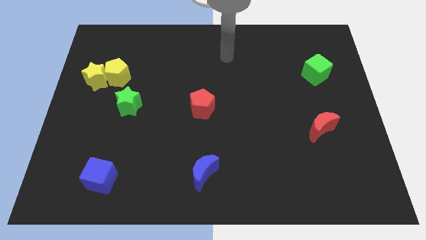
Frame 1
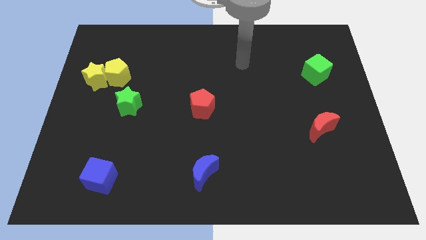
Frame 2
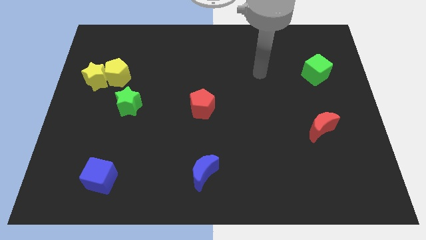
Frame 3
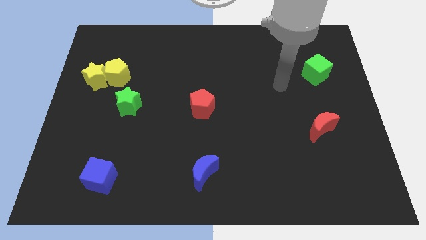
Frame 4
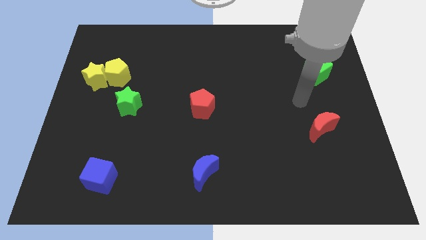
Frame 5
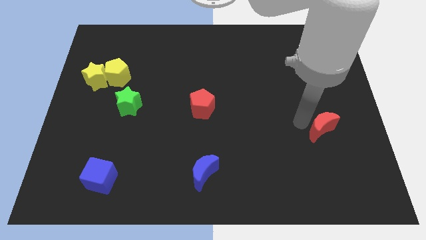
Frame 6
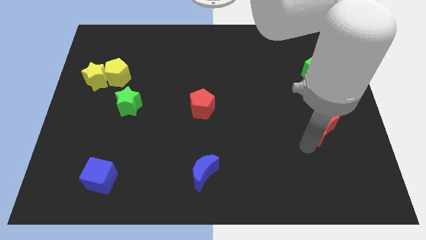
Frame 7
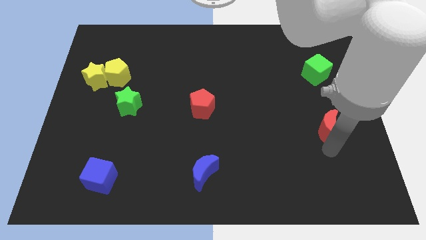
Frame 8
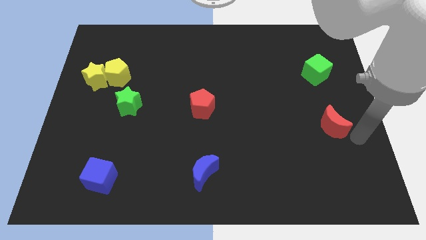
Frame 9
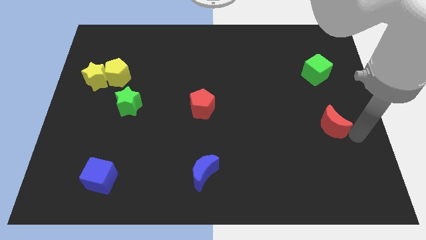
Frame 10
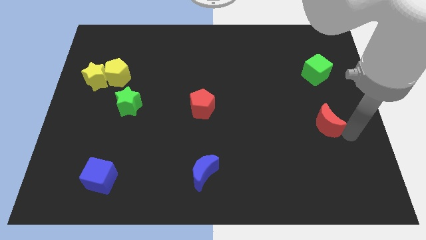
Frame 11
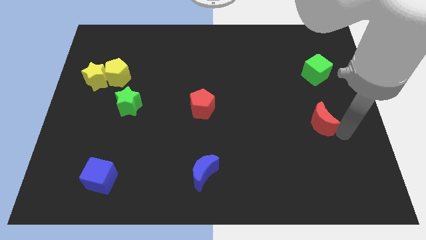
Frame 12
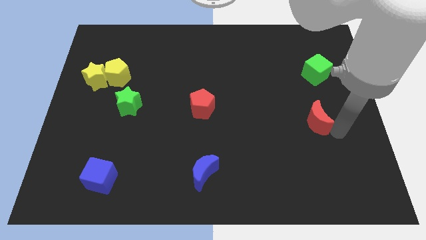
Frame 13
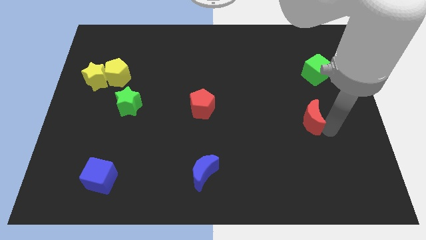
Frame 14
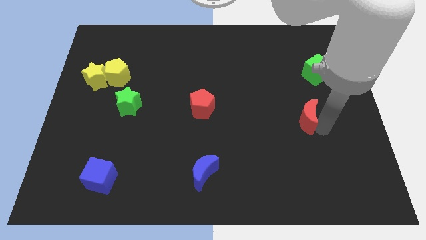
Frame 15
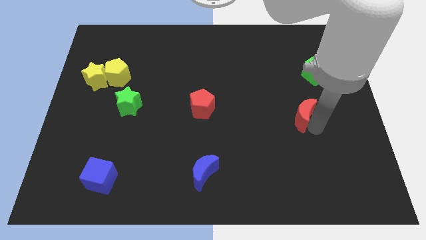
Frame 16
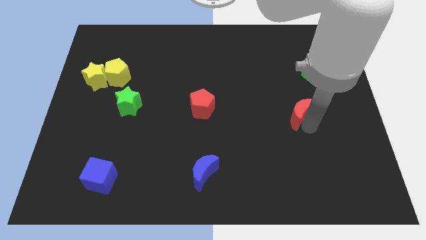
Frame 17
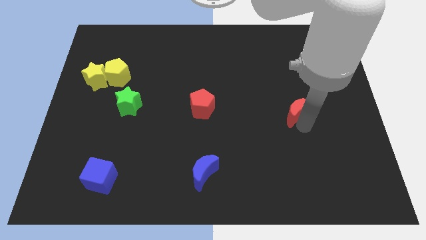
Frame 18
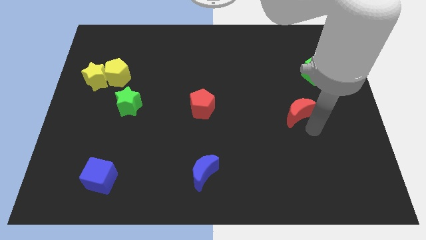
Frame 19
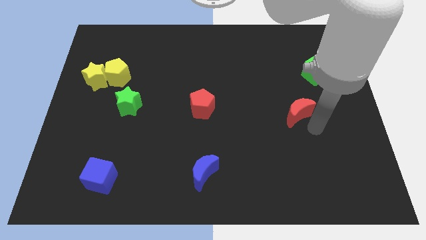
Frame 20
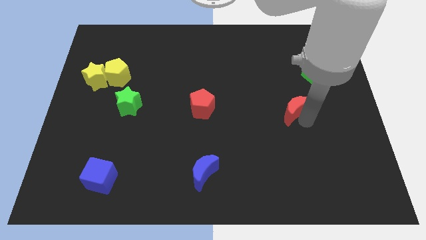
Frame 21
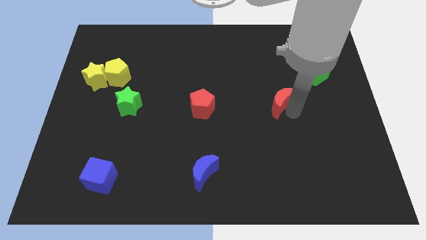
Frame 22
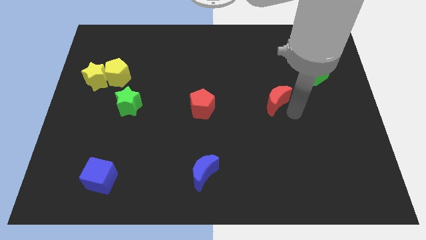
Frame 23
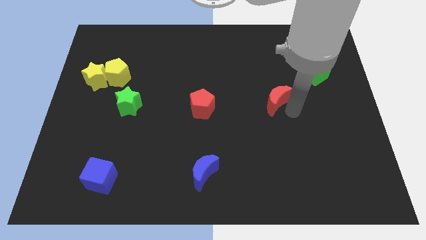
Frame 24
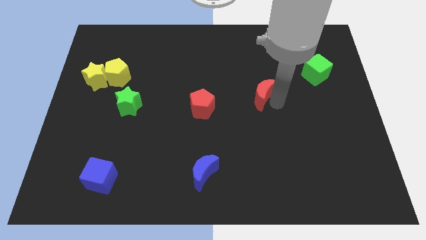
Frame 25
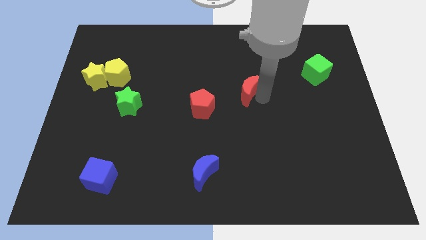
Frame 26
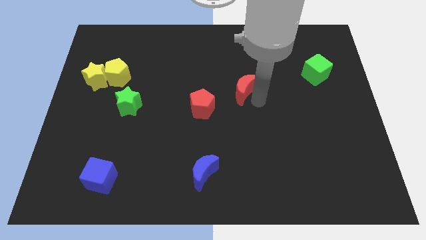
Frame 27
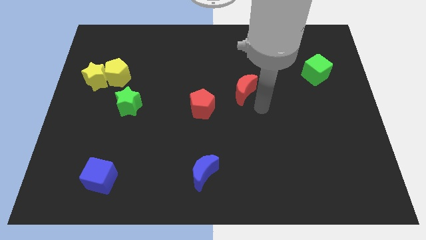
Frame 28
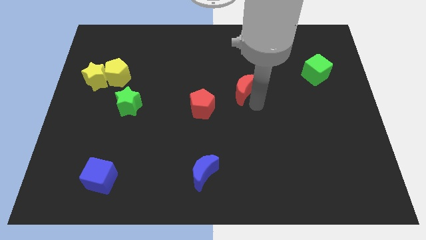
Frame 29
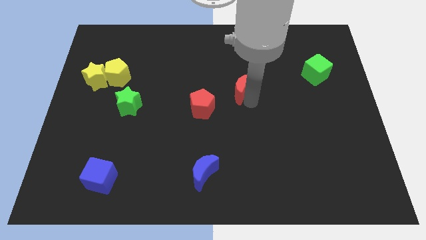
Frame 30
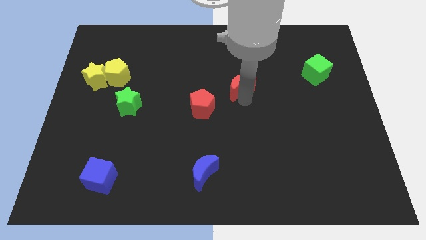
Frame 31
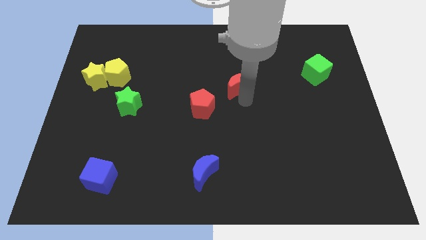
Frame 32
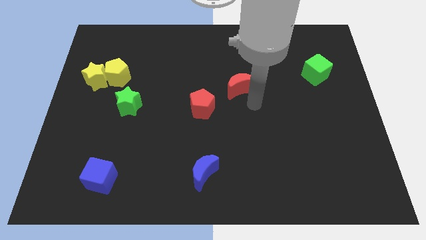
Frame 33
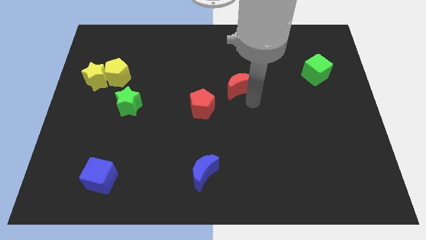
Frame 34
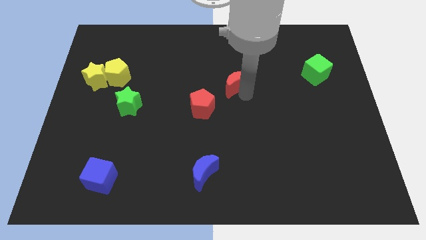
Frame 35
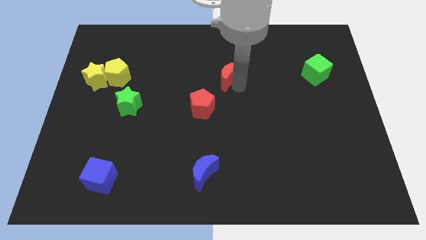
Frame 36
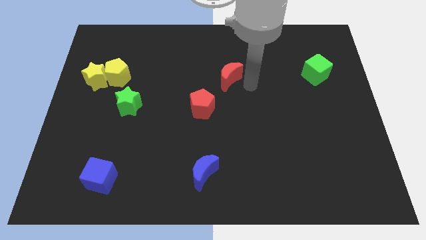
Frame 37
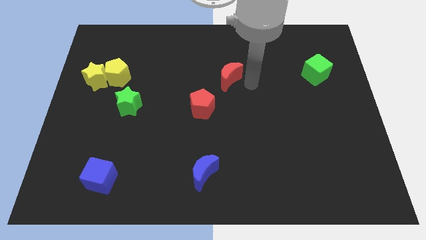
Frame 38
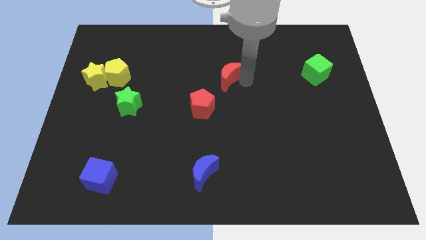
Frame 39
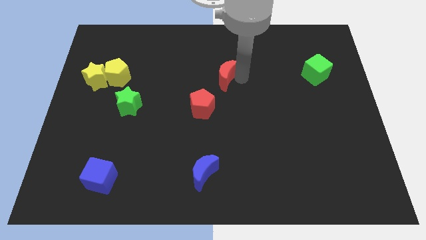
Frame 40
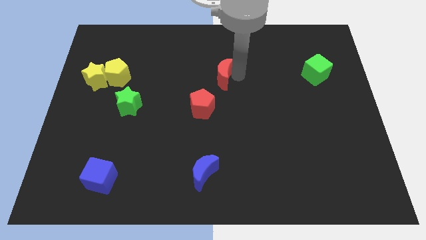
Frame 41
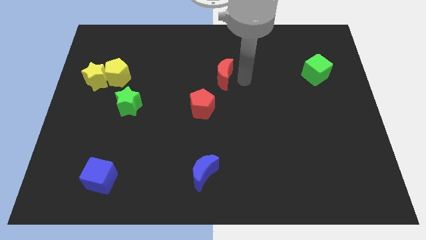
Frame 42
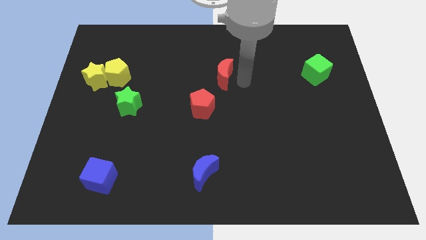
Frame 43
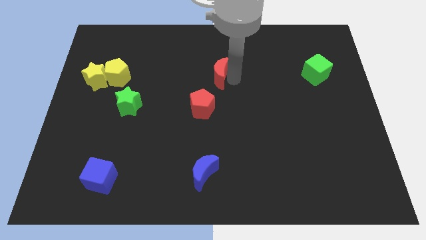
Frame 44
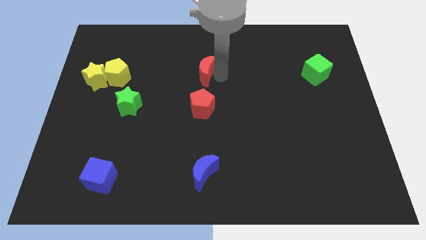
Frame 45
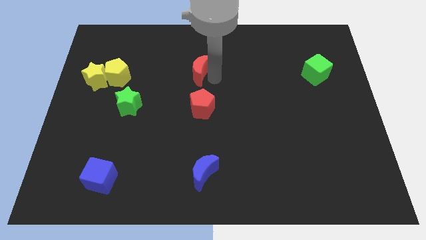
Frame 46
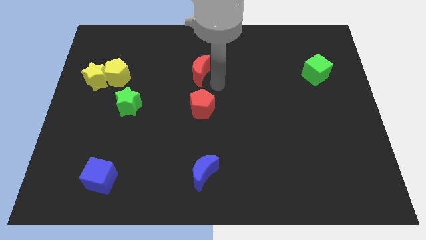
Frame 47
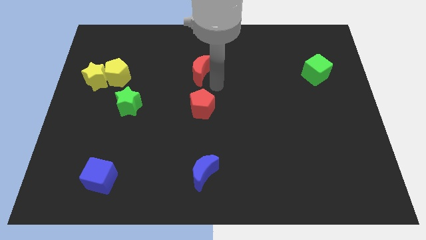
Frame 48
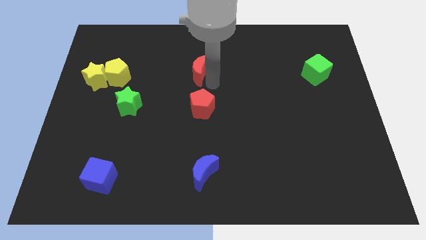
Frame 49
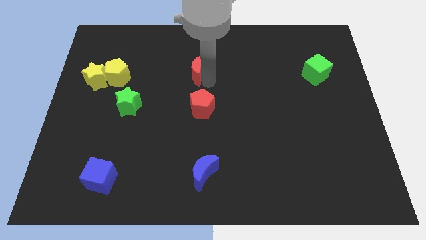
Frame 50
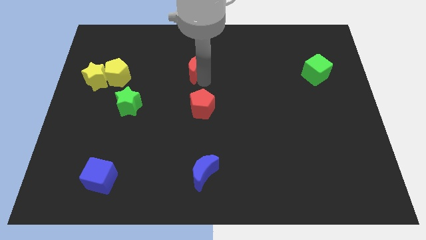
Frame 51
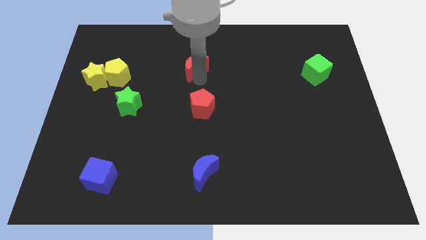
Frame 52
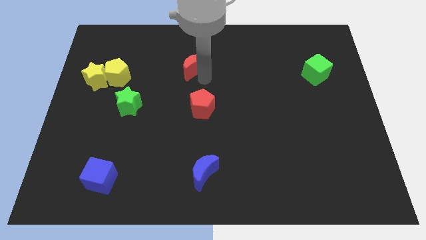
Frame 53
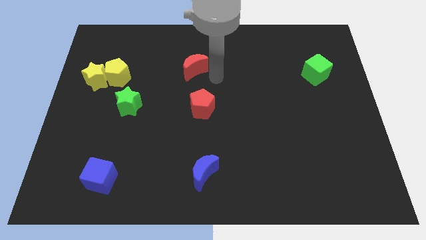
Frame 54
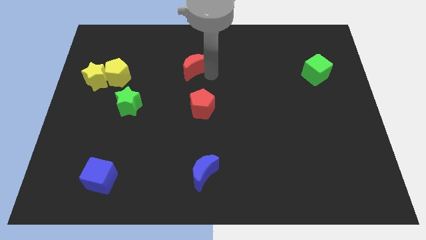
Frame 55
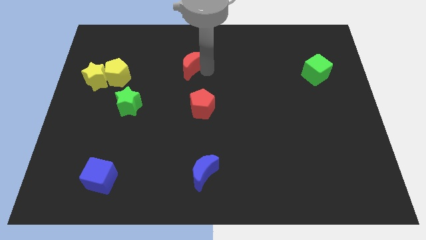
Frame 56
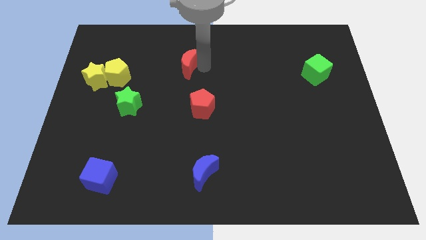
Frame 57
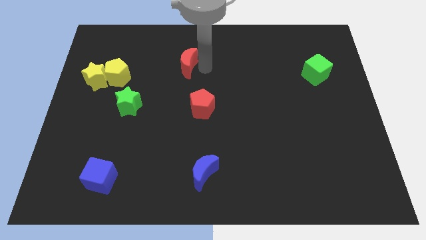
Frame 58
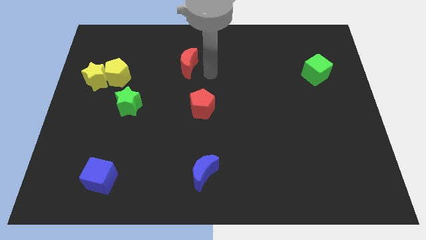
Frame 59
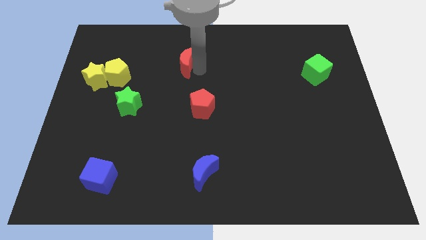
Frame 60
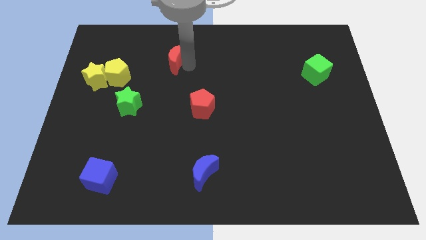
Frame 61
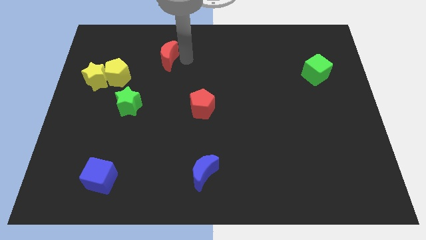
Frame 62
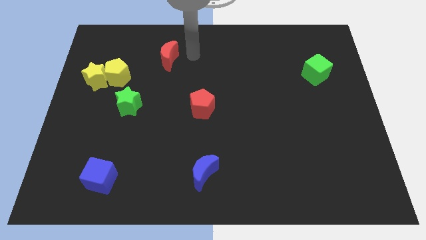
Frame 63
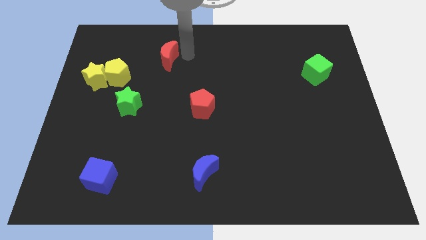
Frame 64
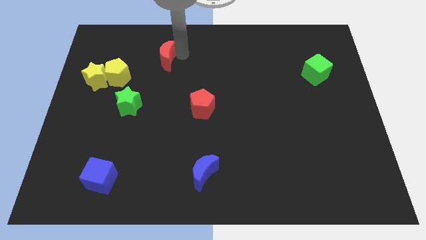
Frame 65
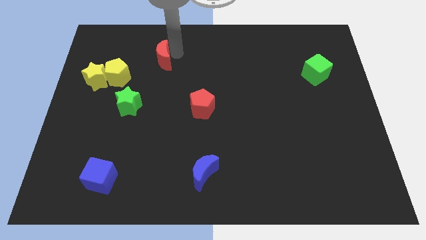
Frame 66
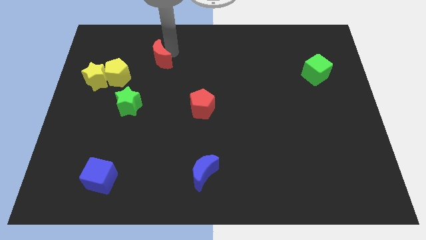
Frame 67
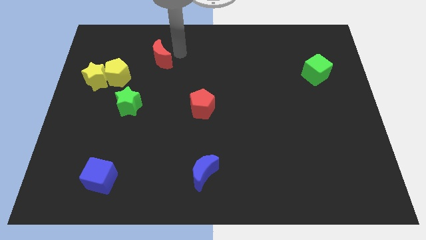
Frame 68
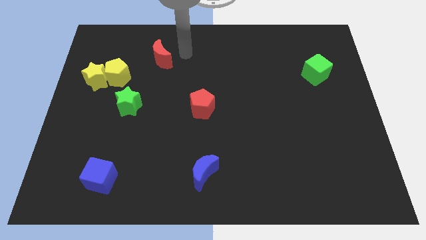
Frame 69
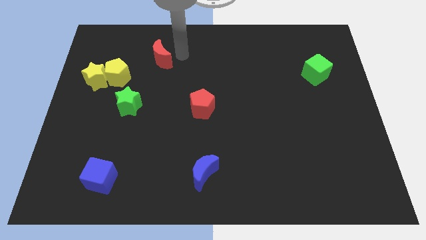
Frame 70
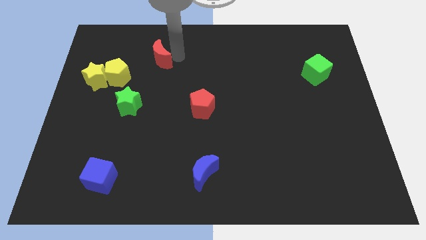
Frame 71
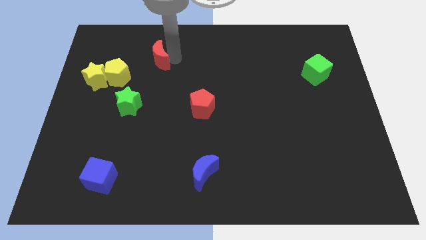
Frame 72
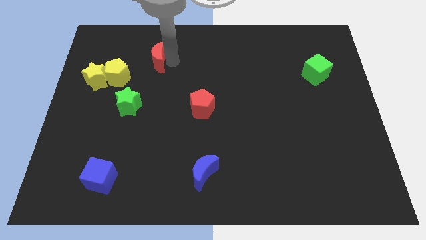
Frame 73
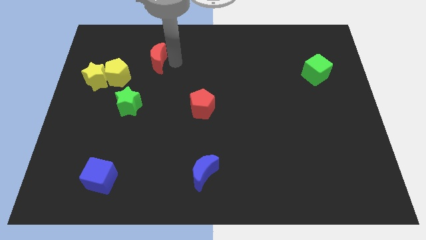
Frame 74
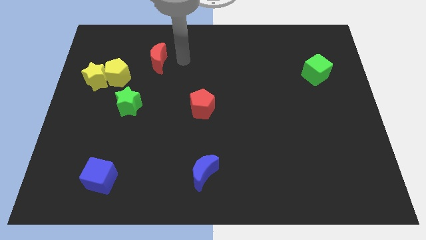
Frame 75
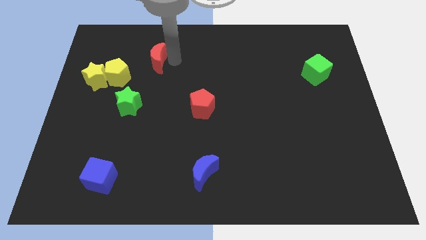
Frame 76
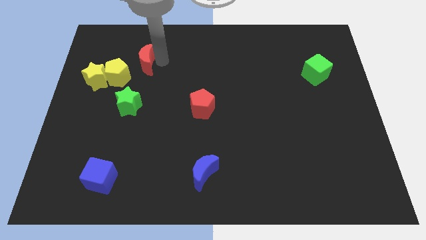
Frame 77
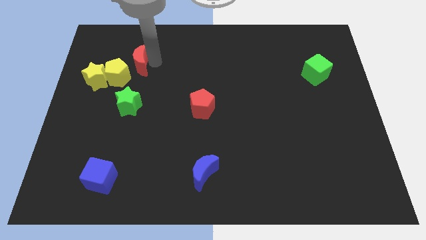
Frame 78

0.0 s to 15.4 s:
slide the red moon to the top right side of the yellow star
